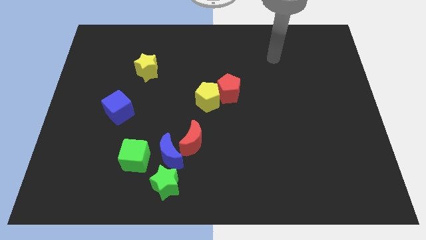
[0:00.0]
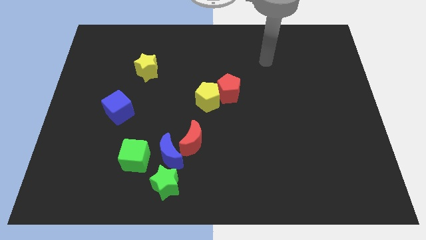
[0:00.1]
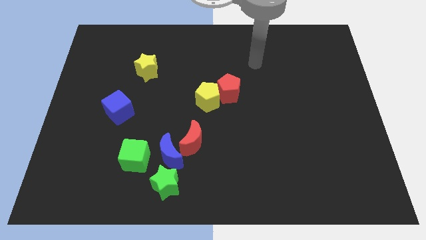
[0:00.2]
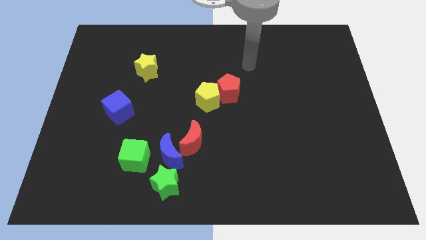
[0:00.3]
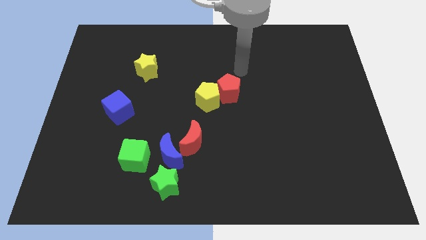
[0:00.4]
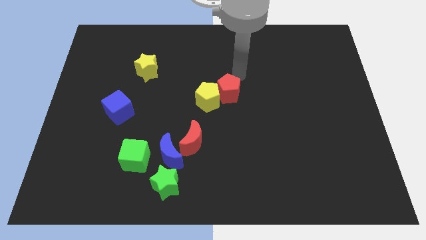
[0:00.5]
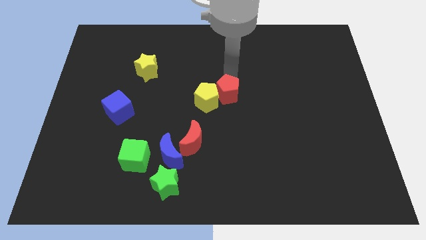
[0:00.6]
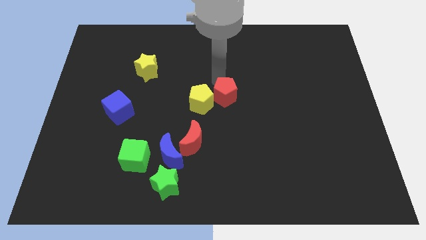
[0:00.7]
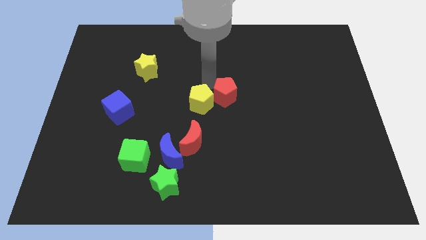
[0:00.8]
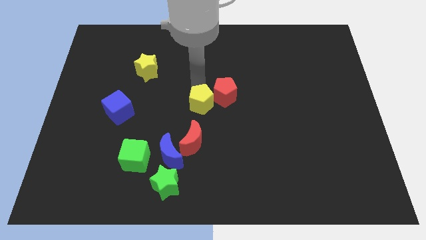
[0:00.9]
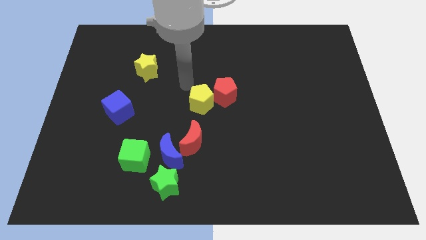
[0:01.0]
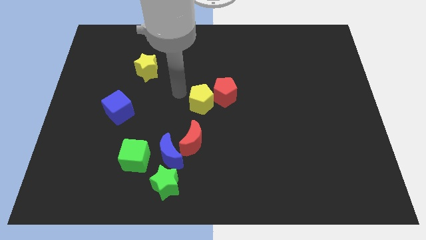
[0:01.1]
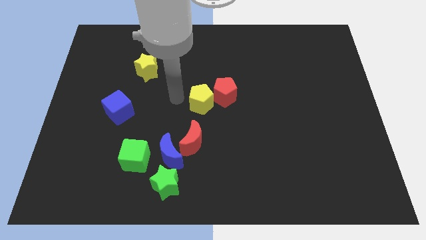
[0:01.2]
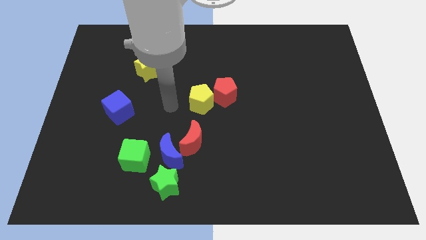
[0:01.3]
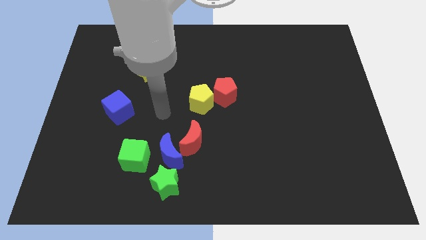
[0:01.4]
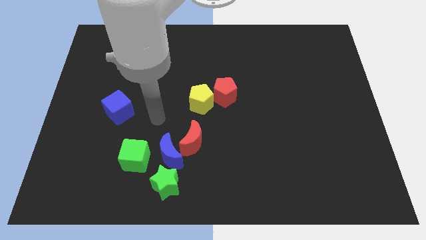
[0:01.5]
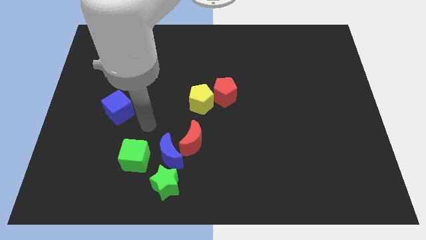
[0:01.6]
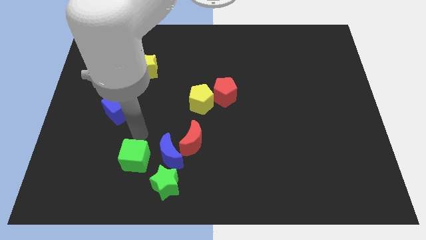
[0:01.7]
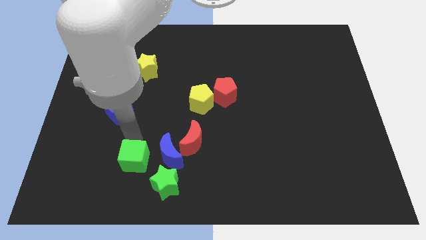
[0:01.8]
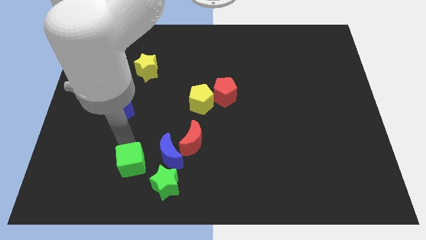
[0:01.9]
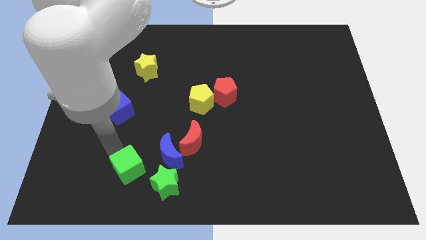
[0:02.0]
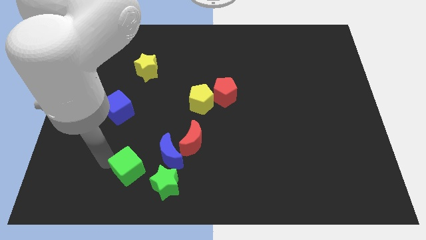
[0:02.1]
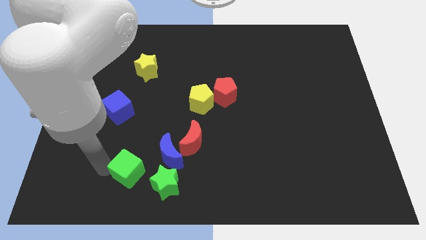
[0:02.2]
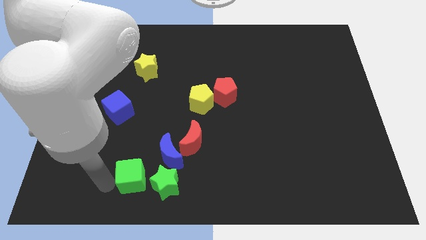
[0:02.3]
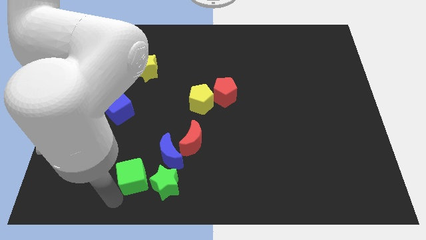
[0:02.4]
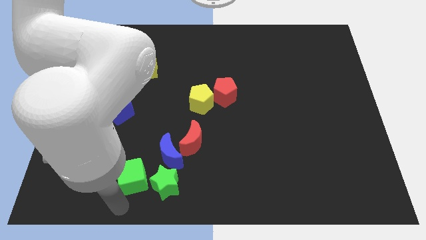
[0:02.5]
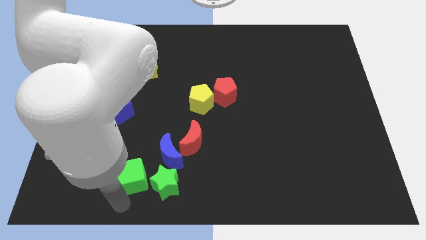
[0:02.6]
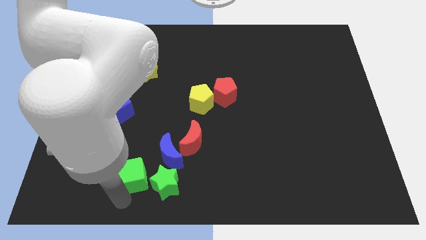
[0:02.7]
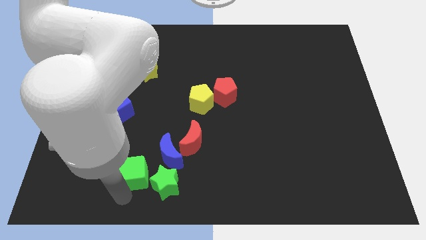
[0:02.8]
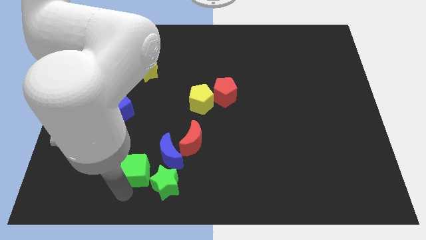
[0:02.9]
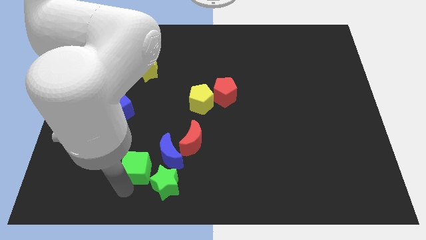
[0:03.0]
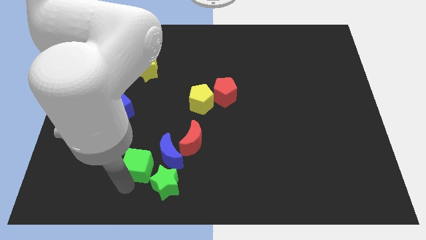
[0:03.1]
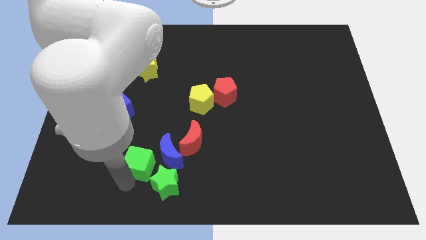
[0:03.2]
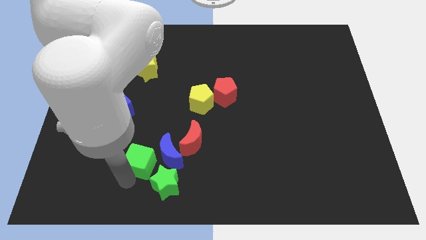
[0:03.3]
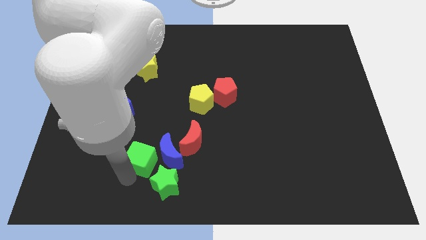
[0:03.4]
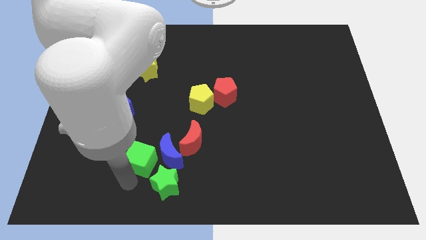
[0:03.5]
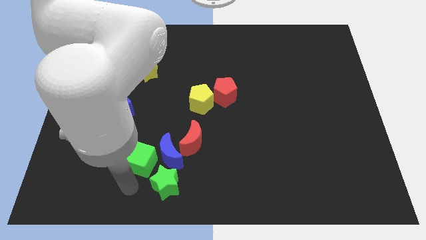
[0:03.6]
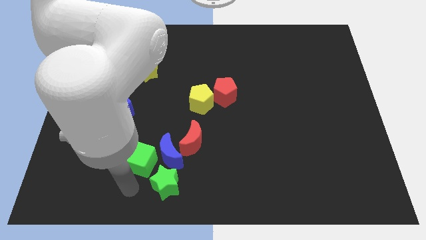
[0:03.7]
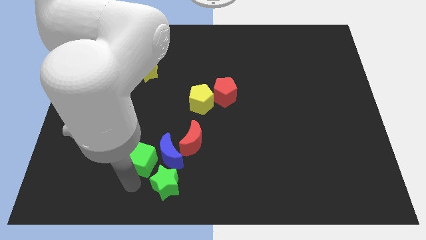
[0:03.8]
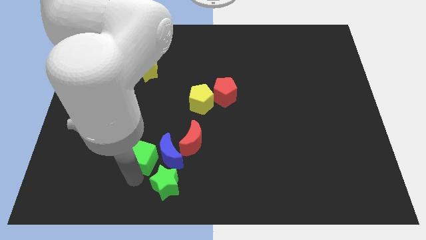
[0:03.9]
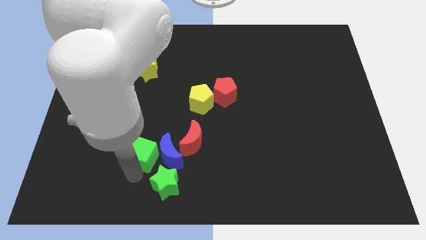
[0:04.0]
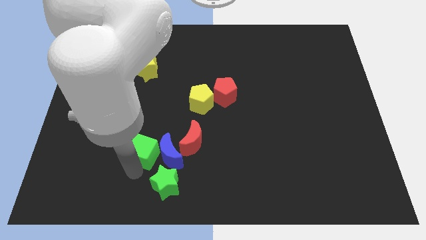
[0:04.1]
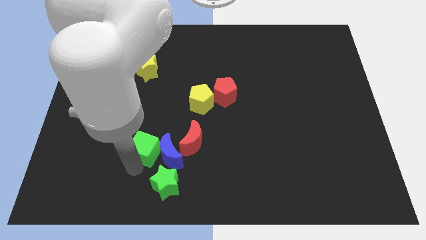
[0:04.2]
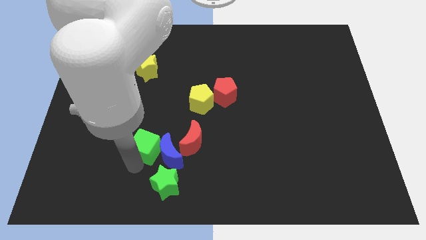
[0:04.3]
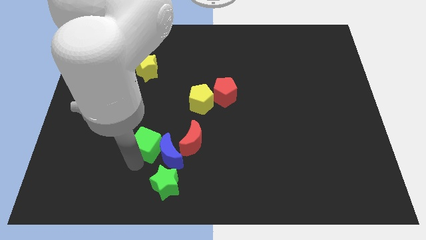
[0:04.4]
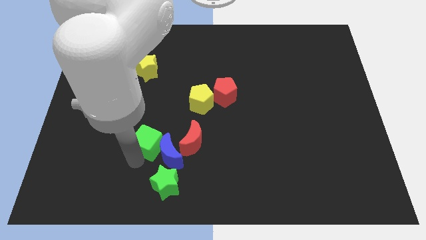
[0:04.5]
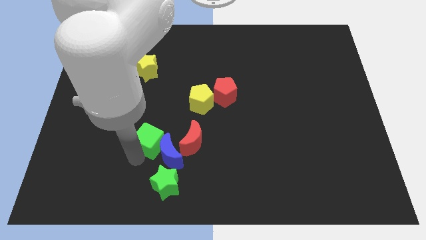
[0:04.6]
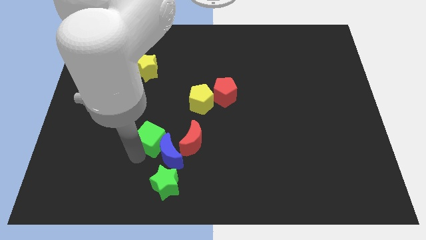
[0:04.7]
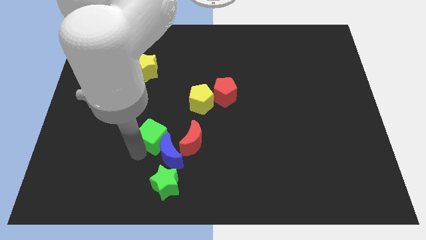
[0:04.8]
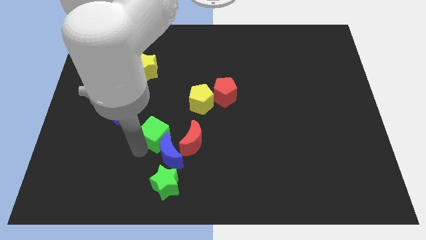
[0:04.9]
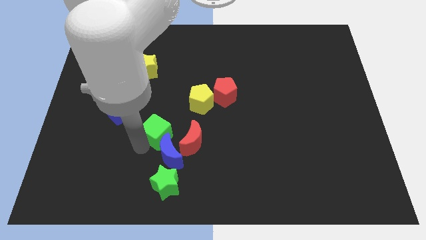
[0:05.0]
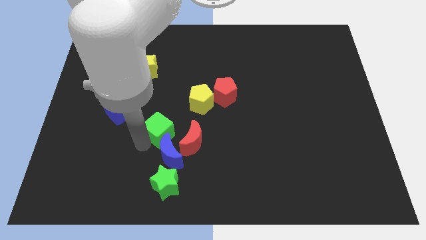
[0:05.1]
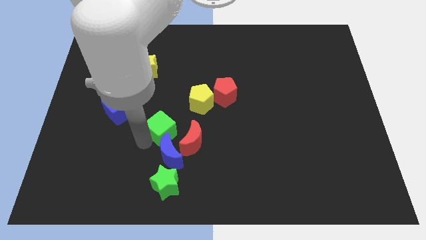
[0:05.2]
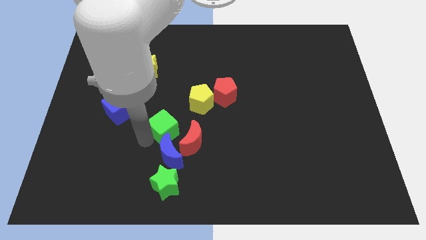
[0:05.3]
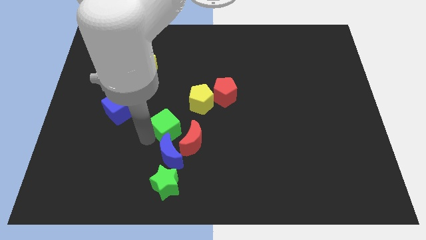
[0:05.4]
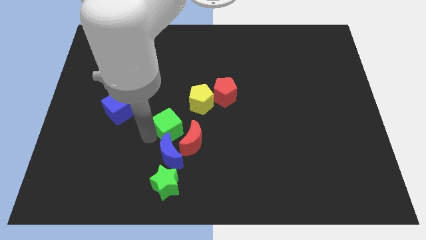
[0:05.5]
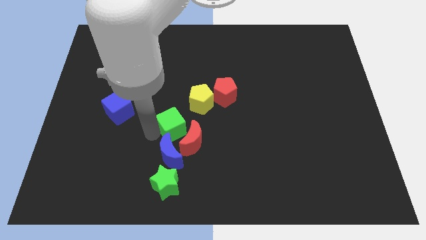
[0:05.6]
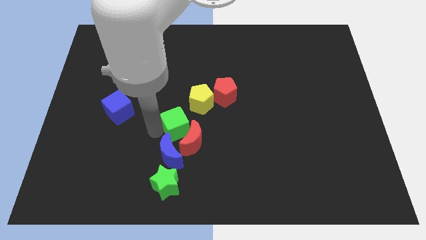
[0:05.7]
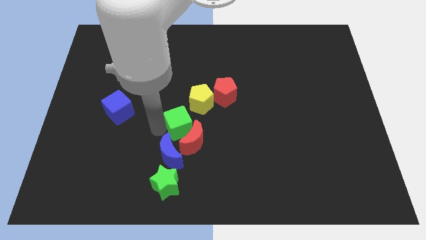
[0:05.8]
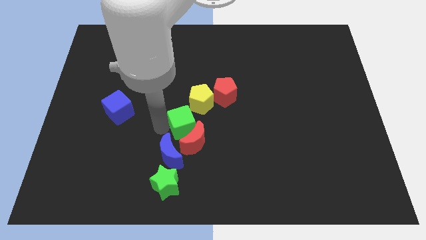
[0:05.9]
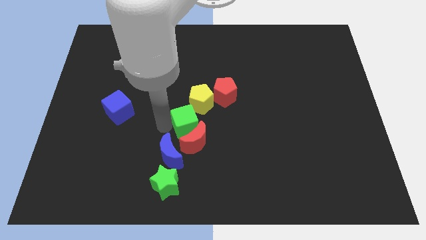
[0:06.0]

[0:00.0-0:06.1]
push the green cube to the right a little bit

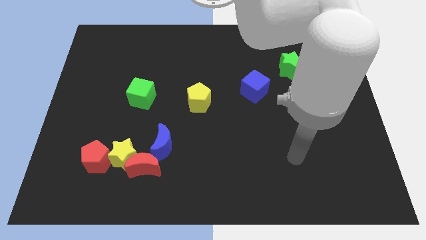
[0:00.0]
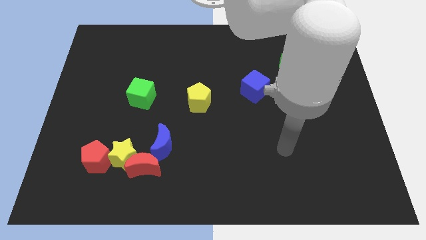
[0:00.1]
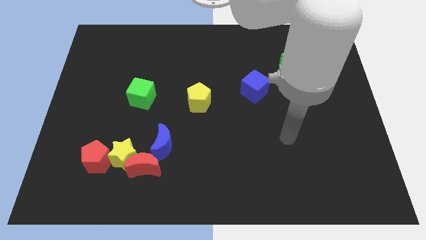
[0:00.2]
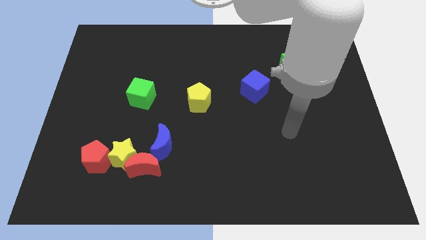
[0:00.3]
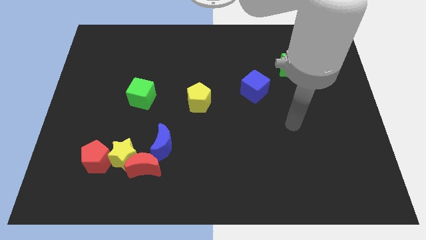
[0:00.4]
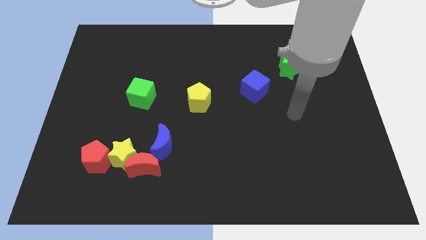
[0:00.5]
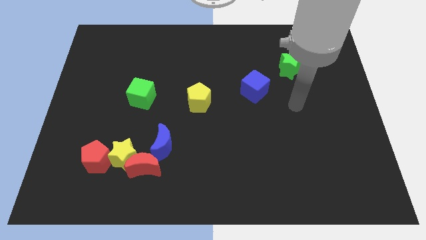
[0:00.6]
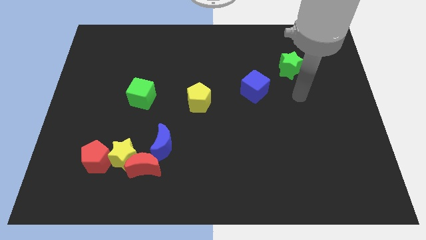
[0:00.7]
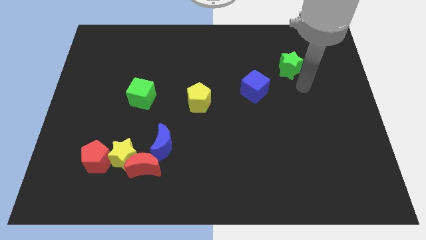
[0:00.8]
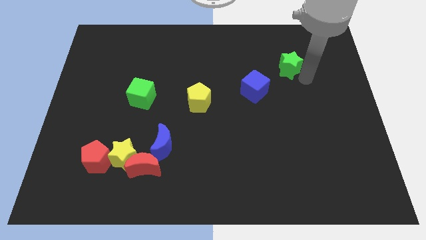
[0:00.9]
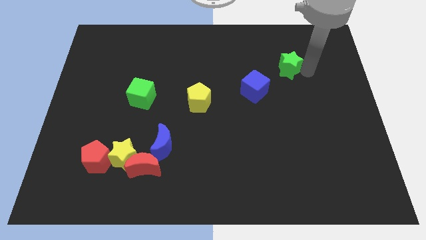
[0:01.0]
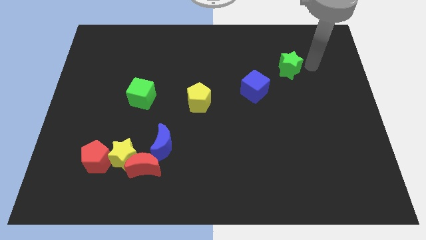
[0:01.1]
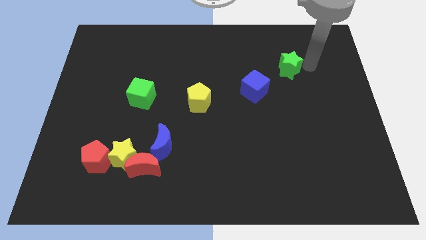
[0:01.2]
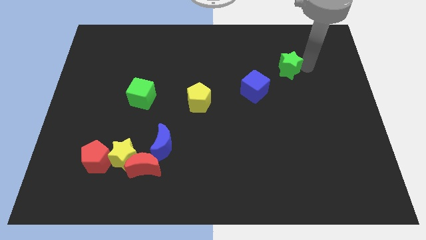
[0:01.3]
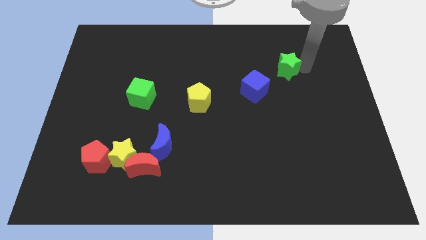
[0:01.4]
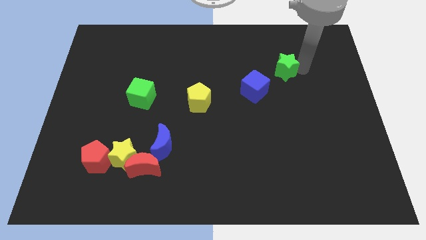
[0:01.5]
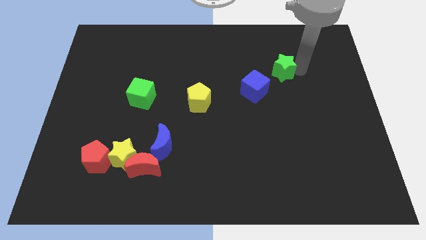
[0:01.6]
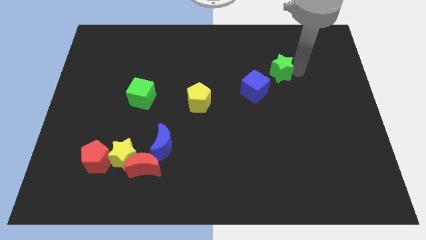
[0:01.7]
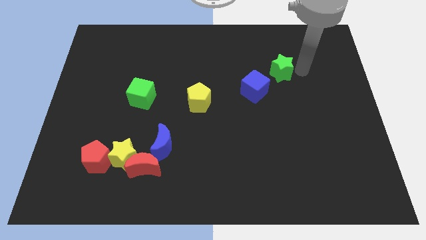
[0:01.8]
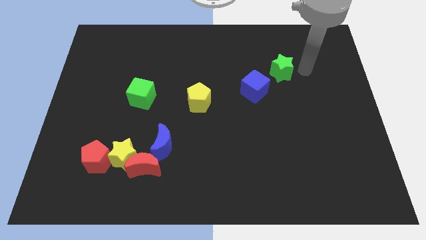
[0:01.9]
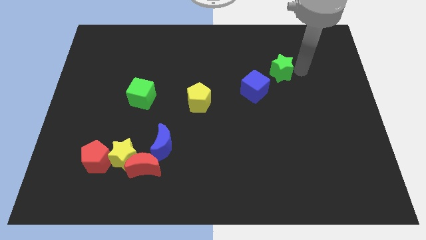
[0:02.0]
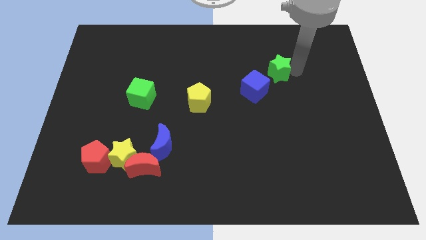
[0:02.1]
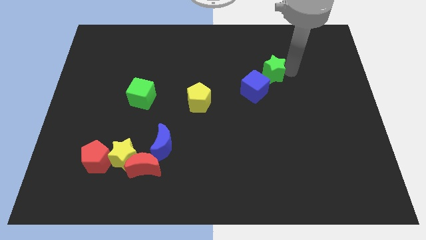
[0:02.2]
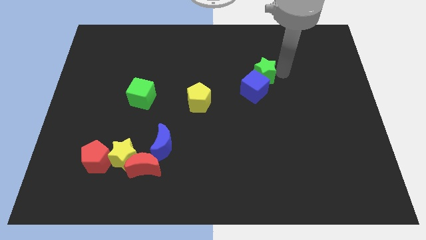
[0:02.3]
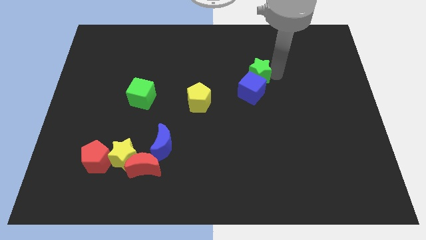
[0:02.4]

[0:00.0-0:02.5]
push the green star left a little
